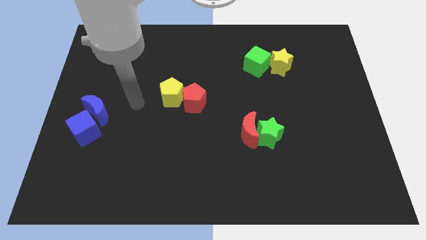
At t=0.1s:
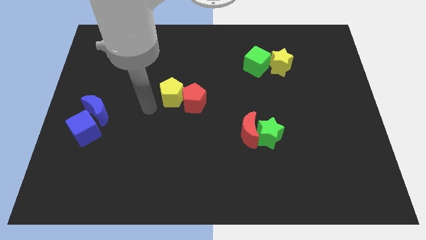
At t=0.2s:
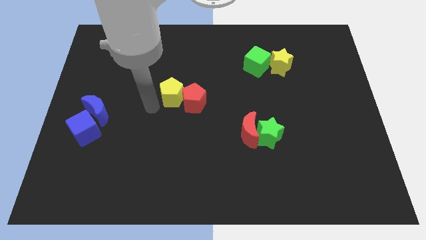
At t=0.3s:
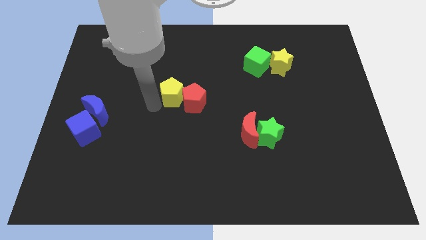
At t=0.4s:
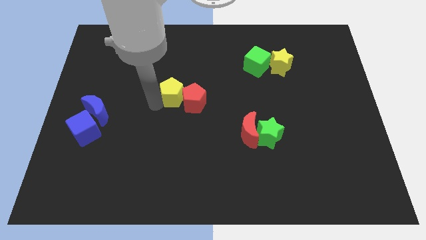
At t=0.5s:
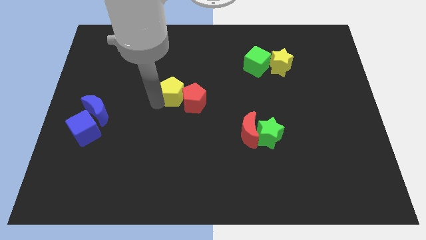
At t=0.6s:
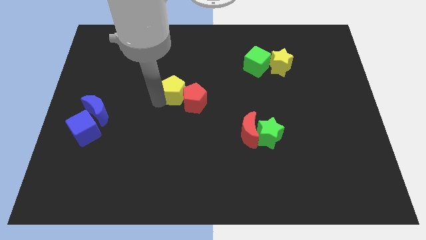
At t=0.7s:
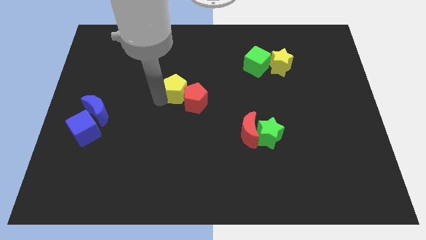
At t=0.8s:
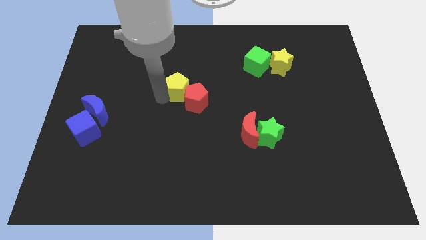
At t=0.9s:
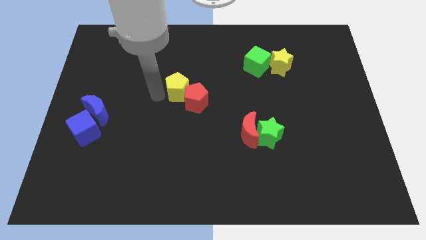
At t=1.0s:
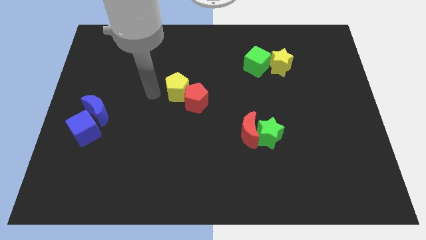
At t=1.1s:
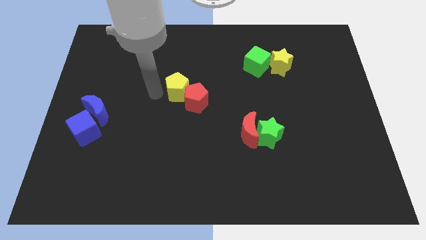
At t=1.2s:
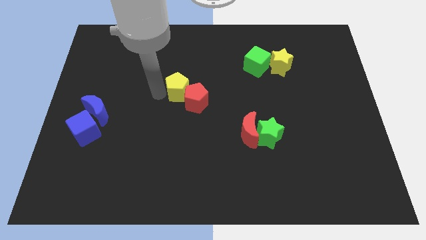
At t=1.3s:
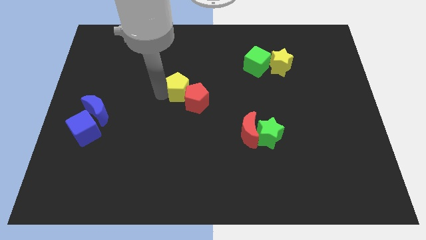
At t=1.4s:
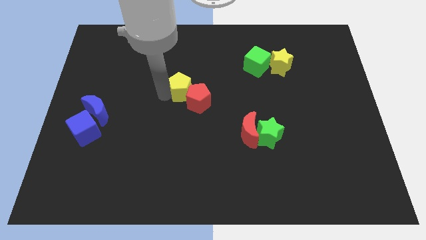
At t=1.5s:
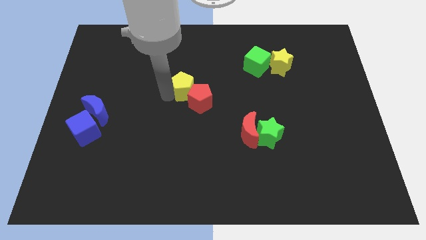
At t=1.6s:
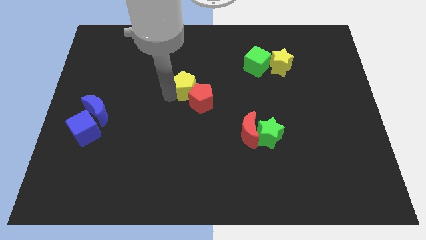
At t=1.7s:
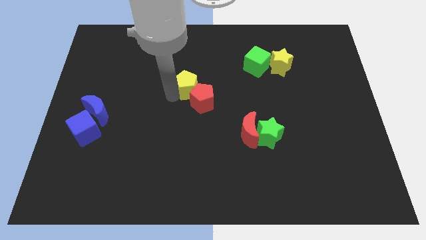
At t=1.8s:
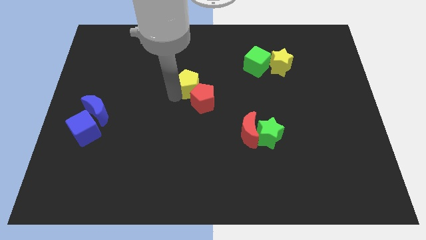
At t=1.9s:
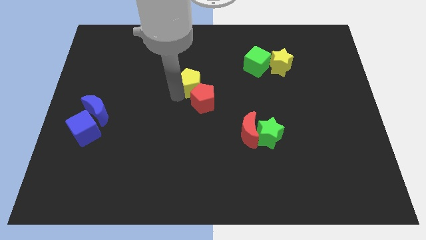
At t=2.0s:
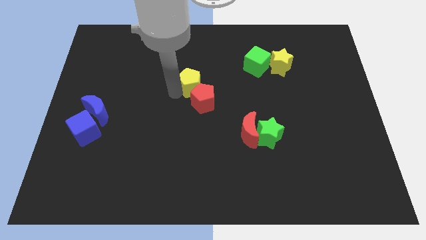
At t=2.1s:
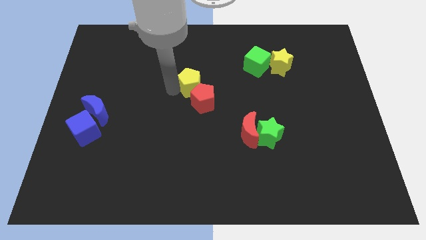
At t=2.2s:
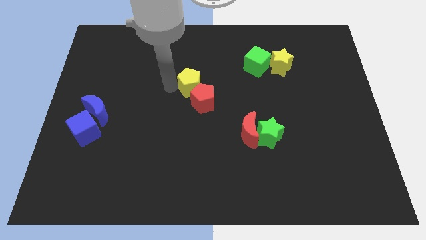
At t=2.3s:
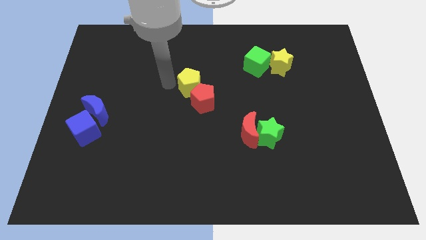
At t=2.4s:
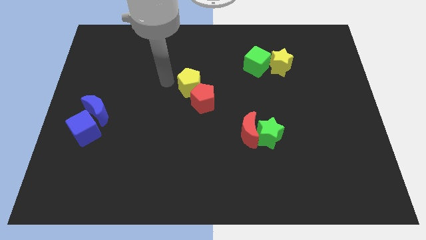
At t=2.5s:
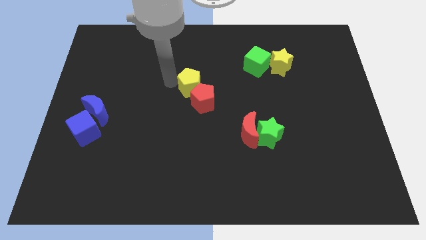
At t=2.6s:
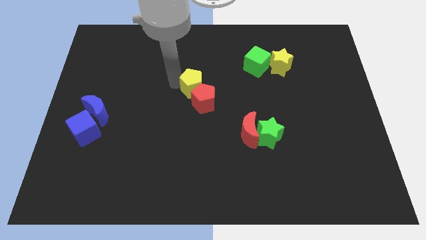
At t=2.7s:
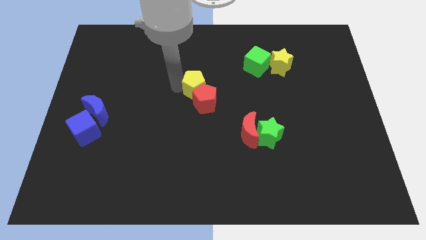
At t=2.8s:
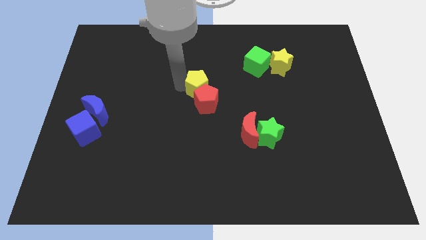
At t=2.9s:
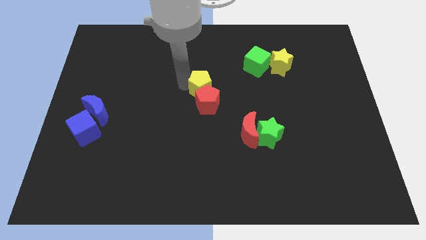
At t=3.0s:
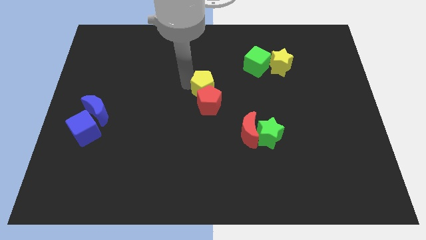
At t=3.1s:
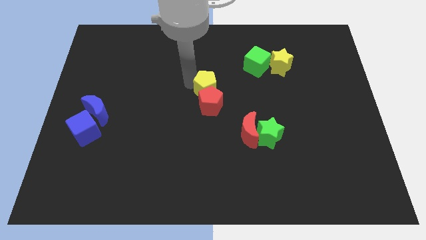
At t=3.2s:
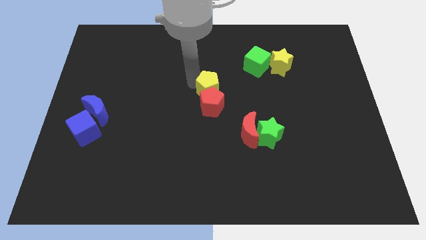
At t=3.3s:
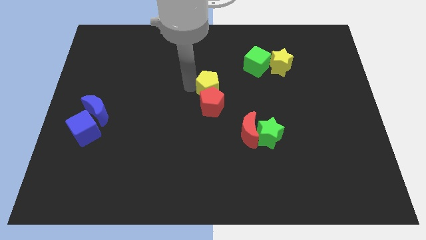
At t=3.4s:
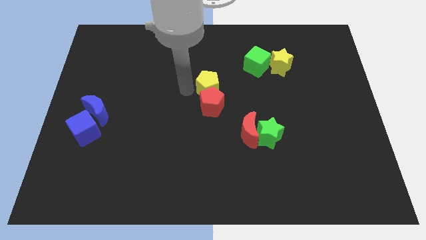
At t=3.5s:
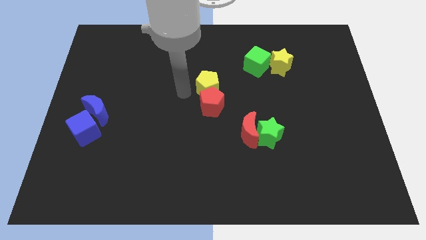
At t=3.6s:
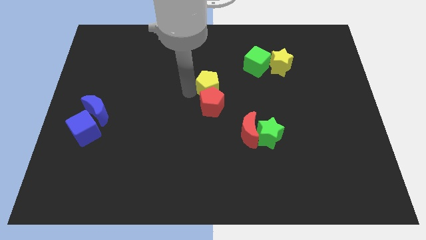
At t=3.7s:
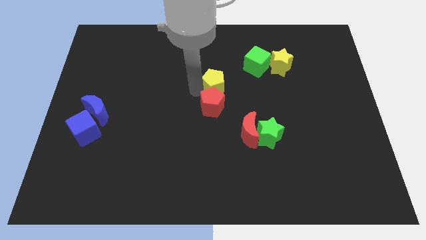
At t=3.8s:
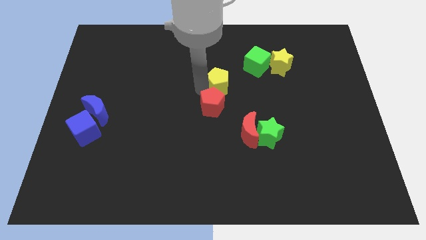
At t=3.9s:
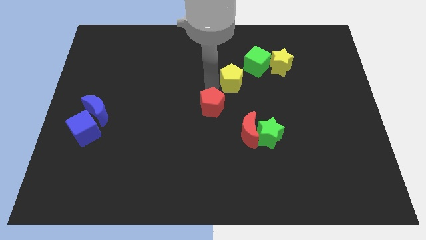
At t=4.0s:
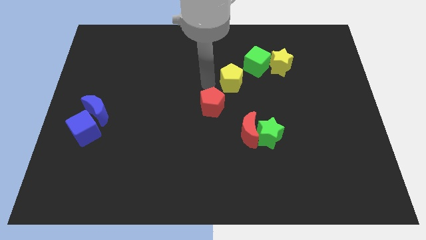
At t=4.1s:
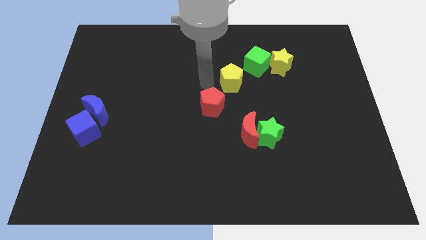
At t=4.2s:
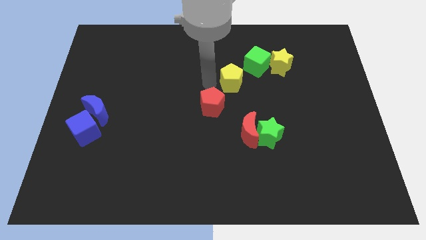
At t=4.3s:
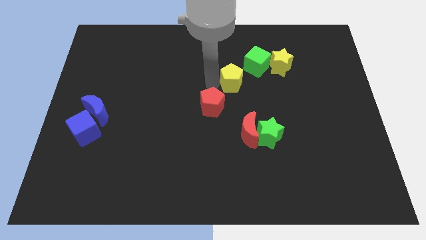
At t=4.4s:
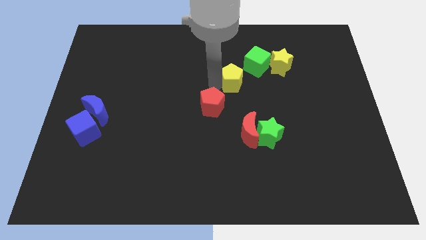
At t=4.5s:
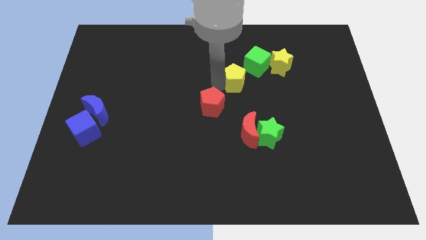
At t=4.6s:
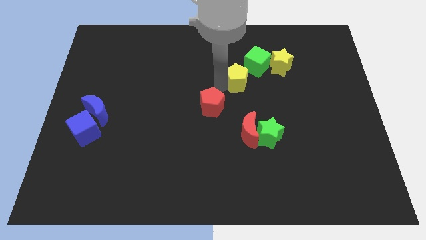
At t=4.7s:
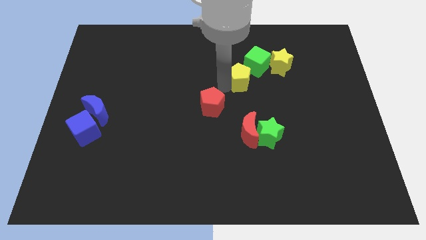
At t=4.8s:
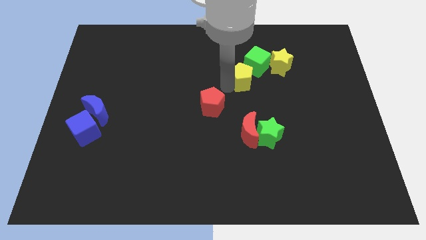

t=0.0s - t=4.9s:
move the yellow pentagon to the bottom left of the yellow star

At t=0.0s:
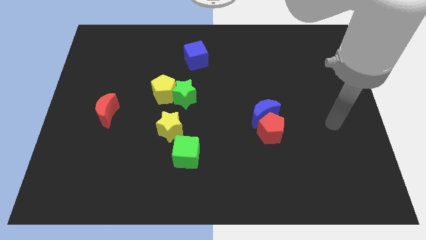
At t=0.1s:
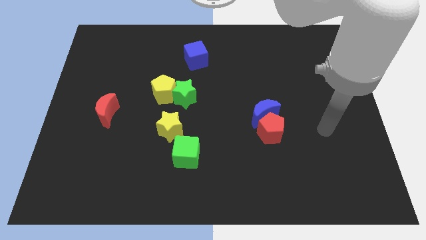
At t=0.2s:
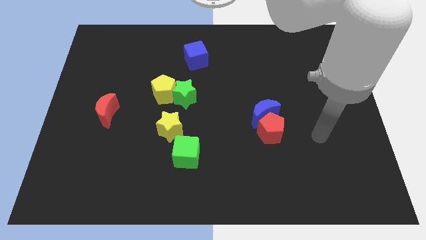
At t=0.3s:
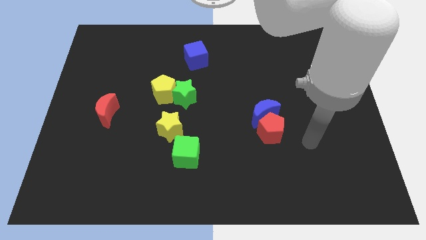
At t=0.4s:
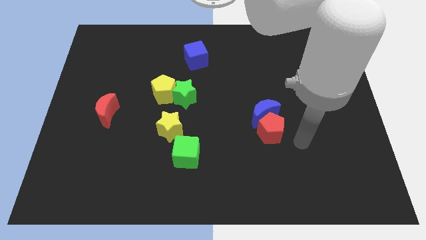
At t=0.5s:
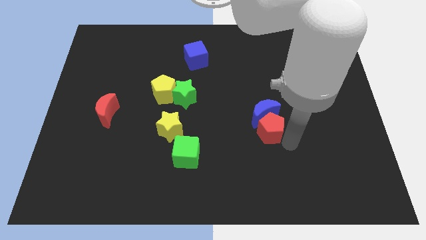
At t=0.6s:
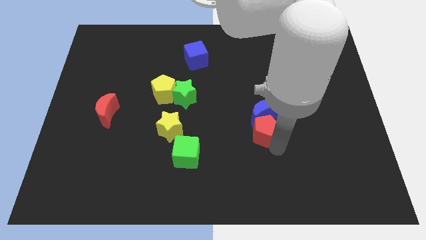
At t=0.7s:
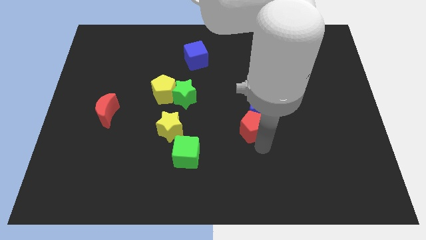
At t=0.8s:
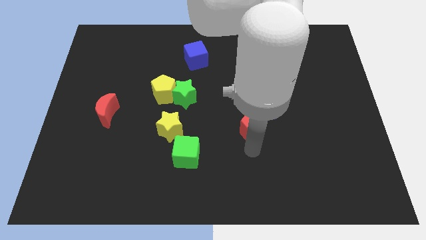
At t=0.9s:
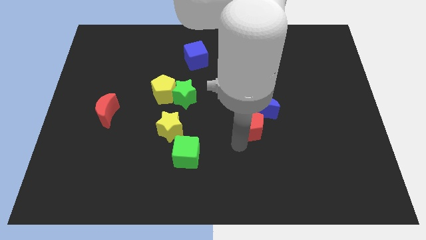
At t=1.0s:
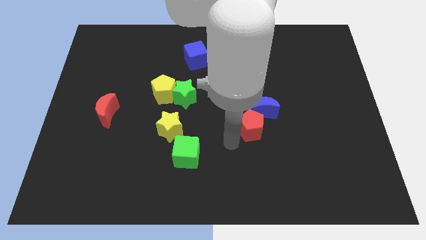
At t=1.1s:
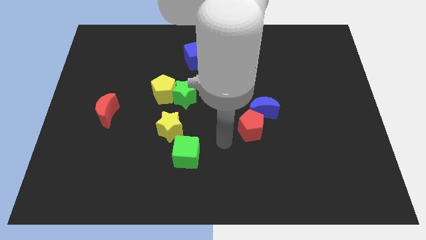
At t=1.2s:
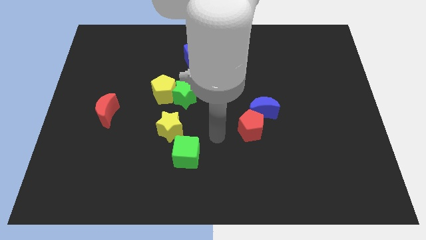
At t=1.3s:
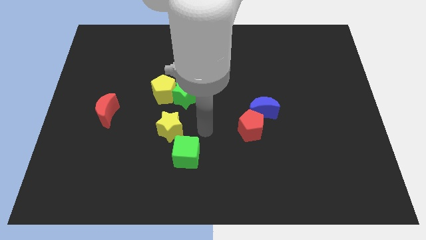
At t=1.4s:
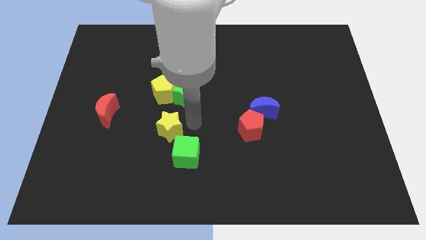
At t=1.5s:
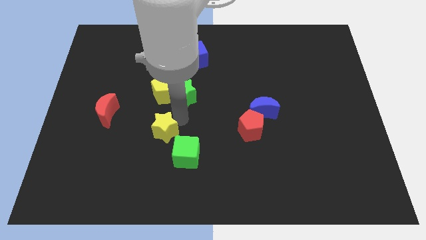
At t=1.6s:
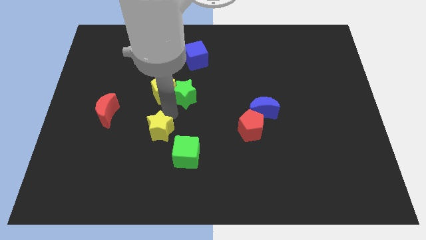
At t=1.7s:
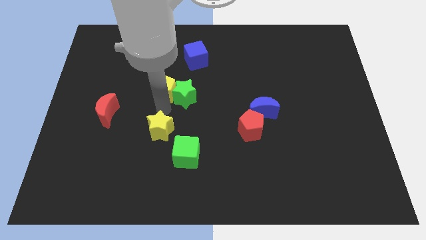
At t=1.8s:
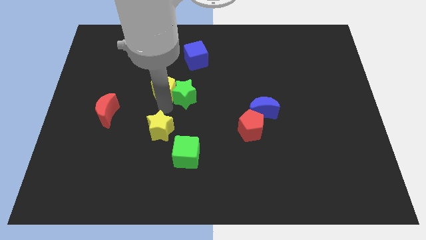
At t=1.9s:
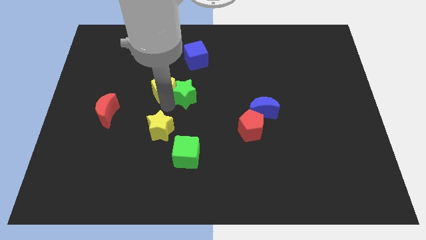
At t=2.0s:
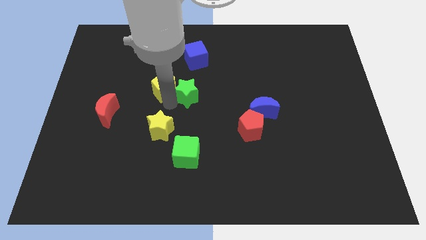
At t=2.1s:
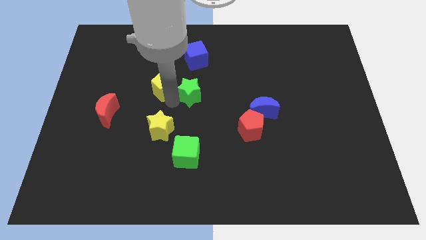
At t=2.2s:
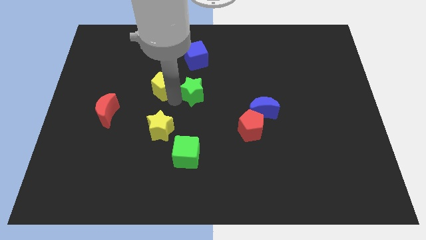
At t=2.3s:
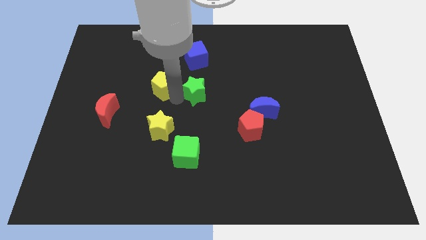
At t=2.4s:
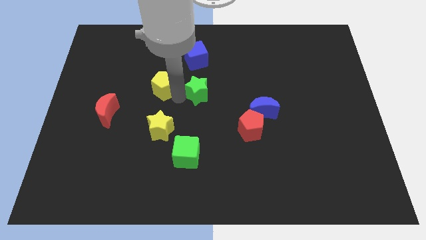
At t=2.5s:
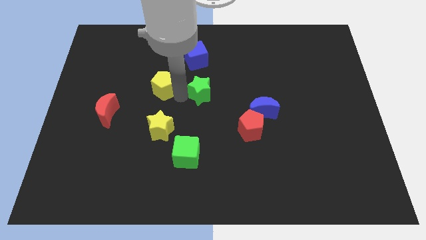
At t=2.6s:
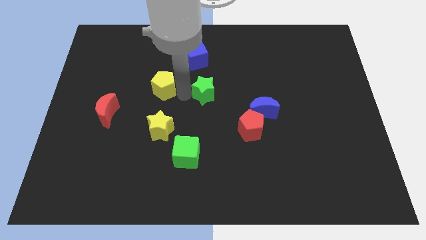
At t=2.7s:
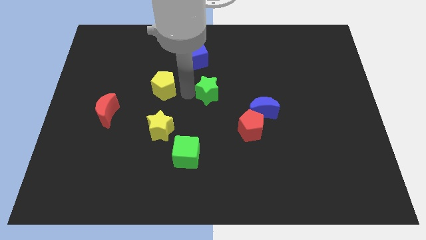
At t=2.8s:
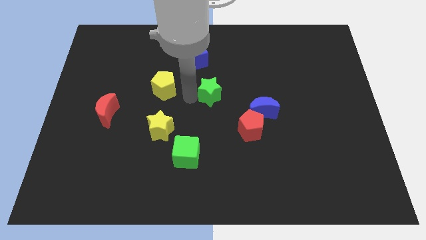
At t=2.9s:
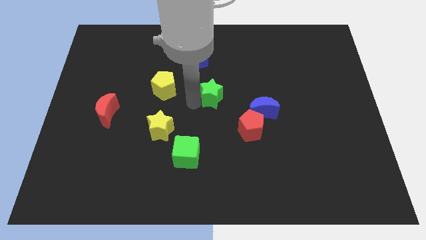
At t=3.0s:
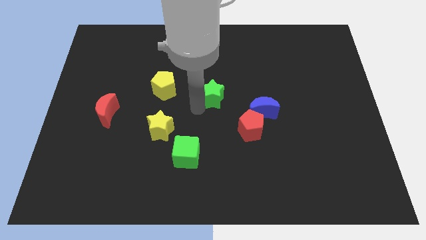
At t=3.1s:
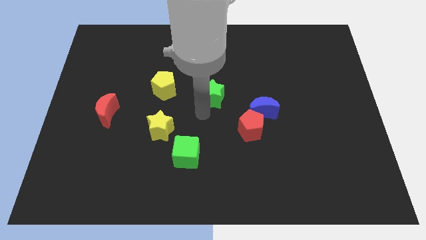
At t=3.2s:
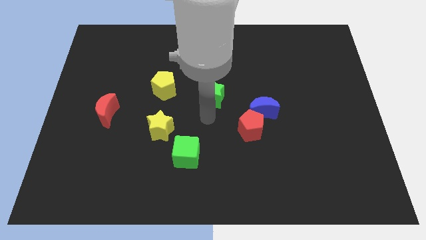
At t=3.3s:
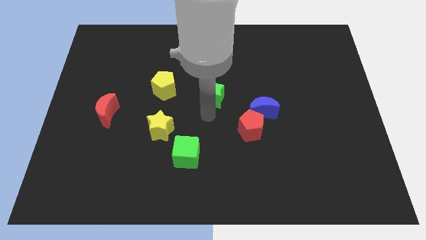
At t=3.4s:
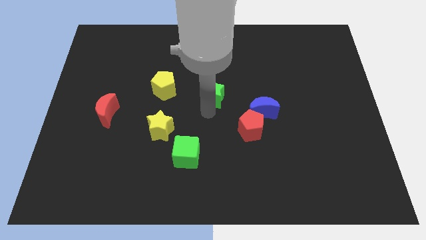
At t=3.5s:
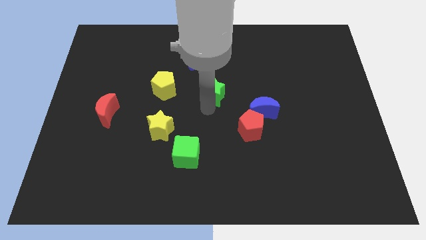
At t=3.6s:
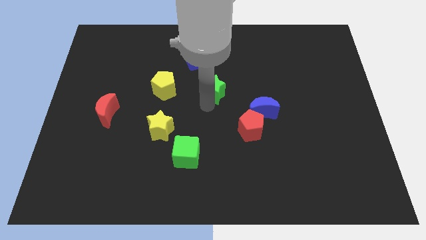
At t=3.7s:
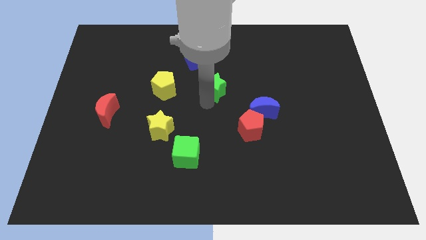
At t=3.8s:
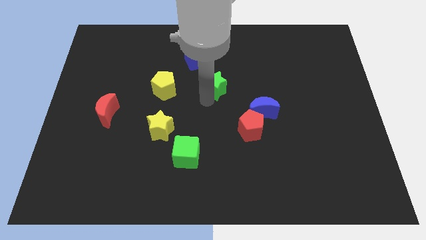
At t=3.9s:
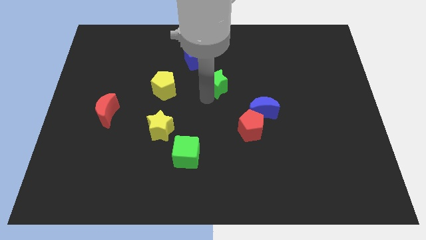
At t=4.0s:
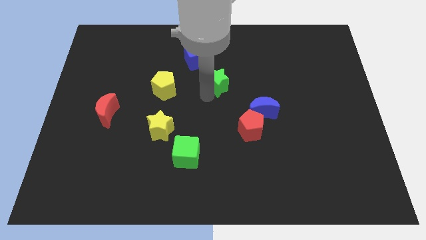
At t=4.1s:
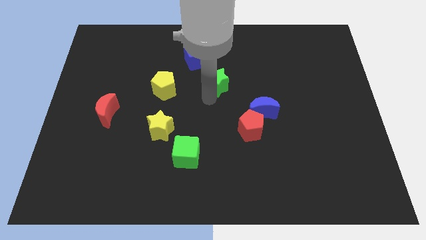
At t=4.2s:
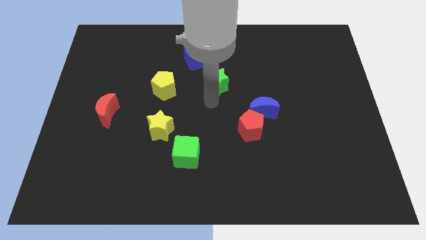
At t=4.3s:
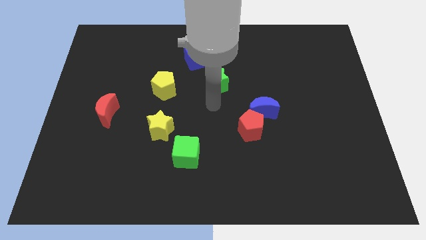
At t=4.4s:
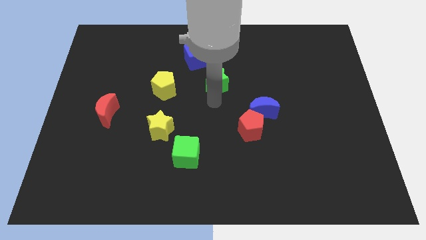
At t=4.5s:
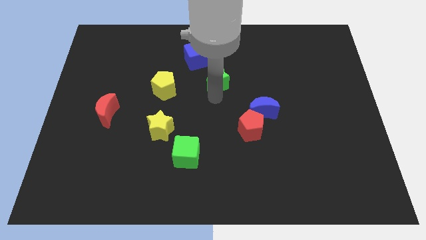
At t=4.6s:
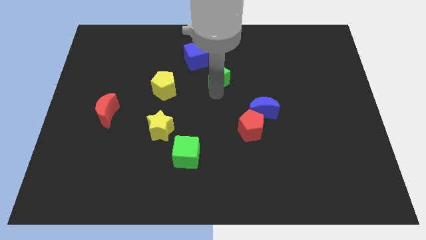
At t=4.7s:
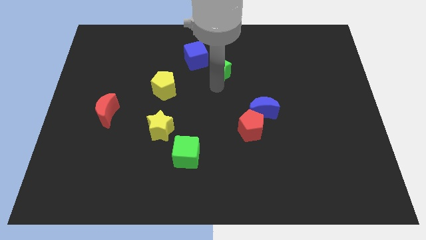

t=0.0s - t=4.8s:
slide the green star to the right side of the blue cube
